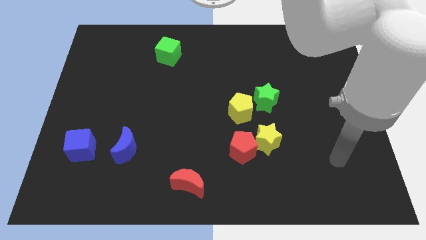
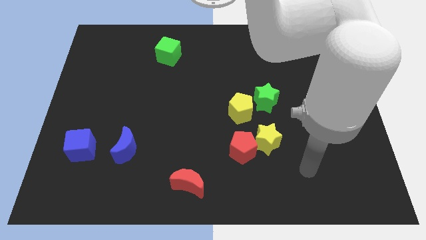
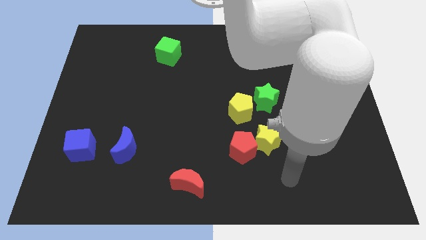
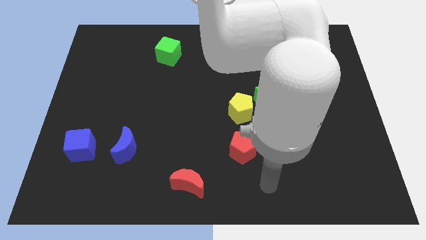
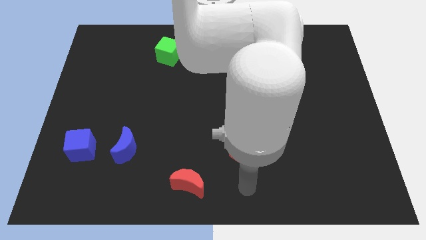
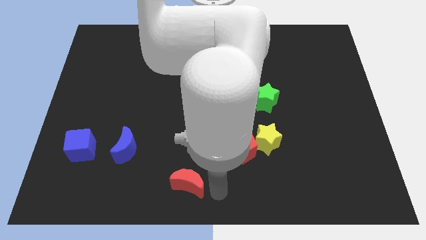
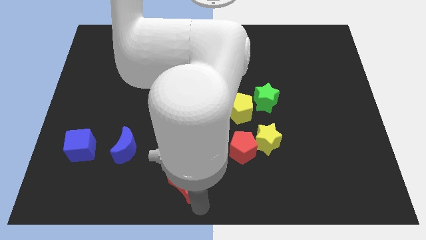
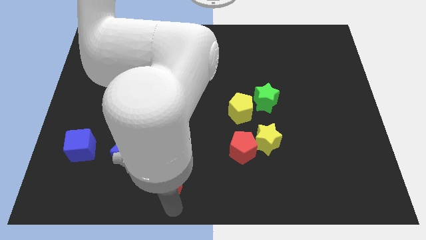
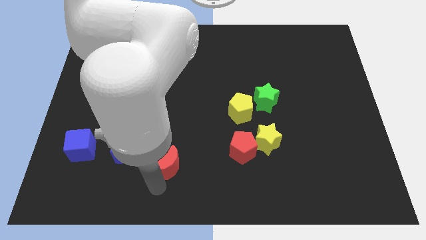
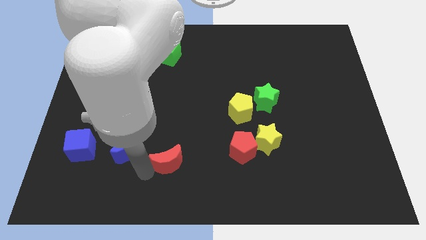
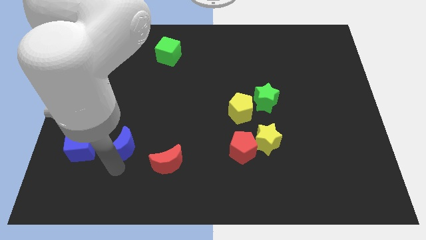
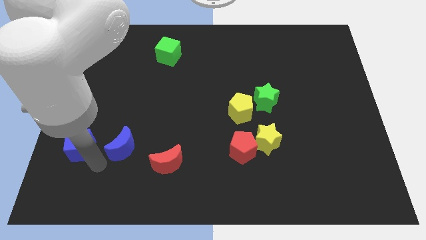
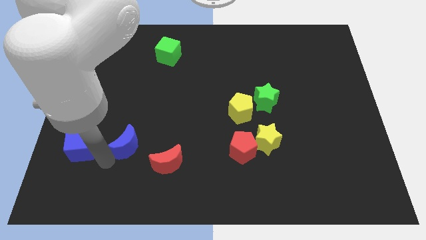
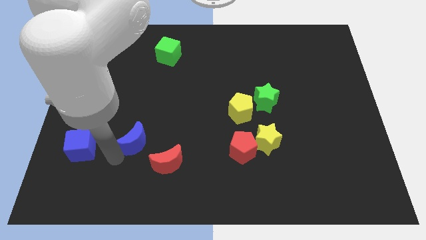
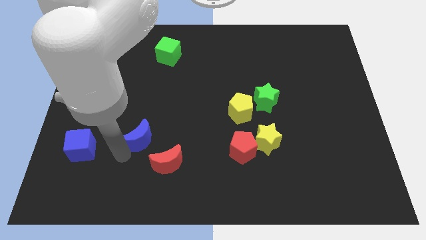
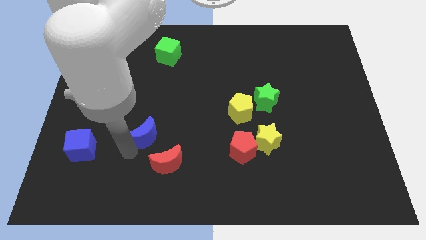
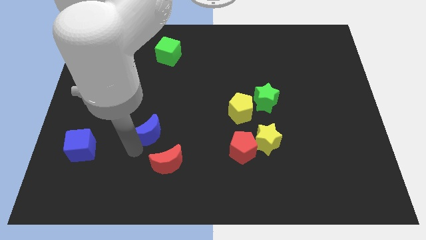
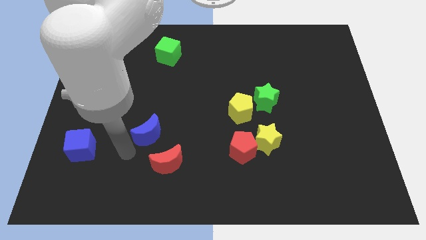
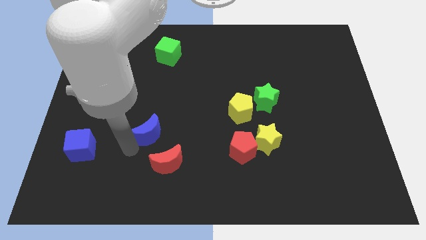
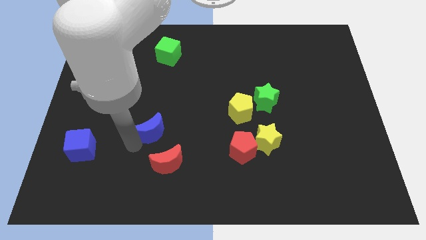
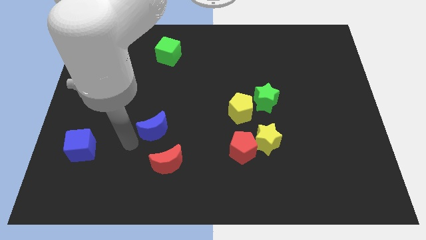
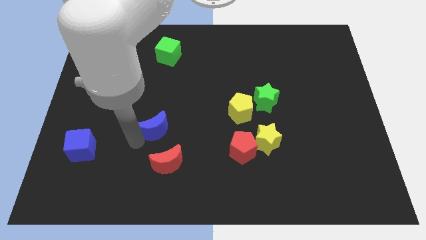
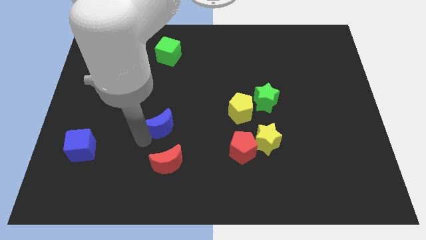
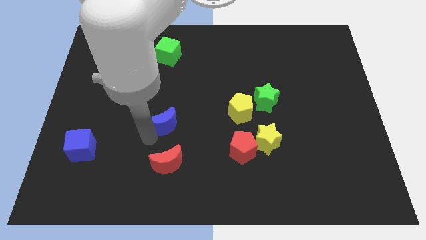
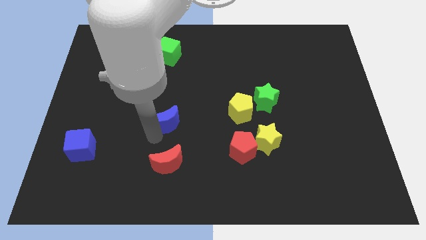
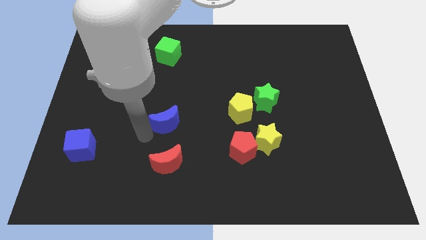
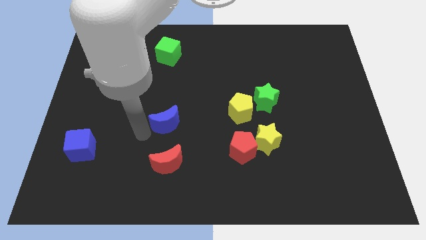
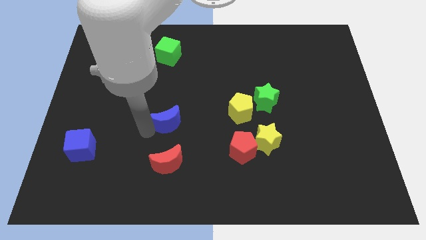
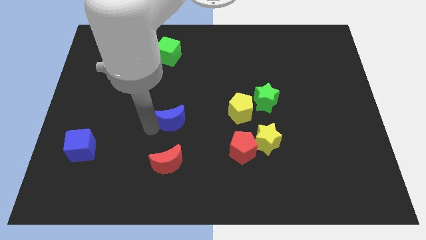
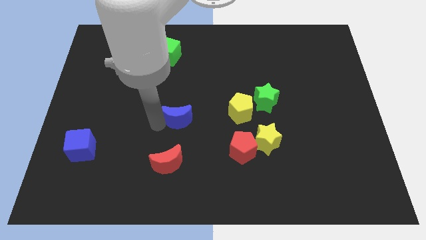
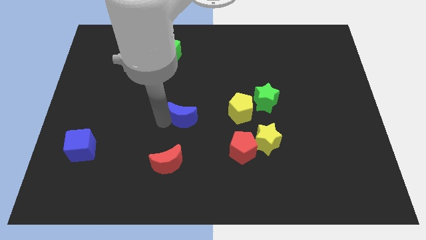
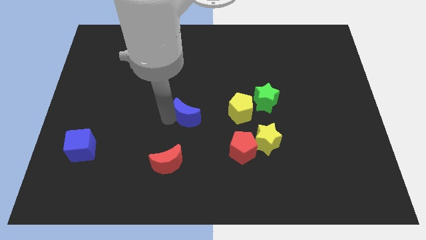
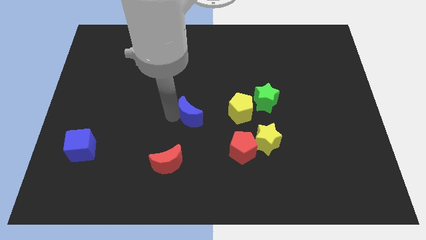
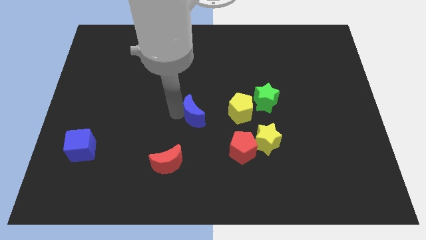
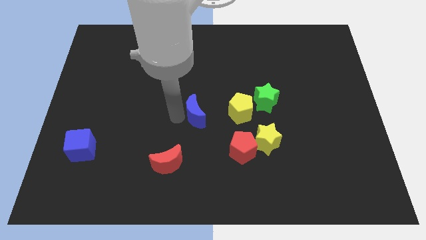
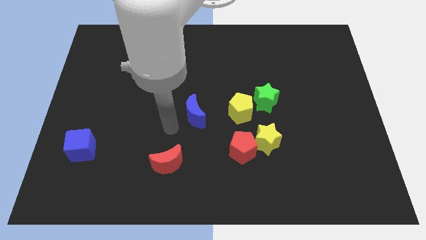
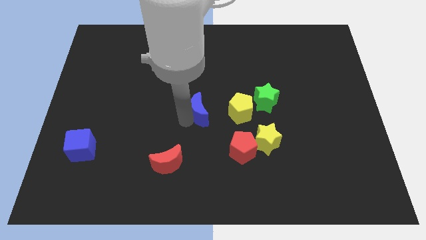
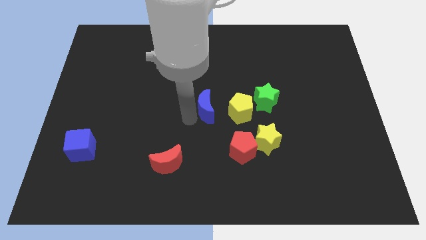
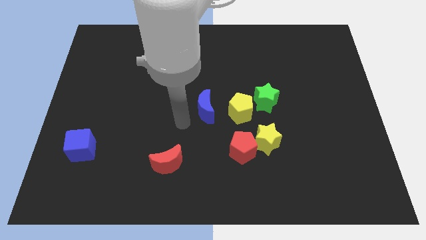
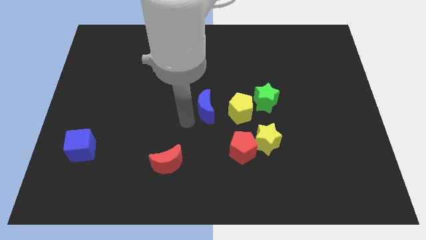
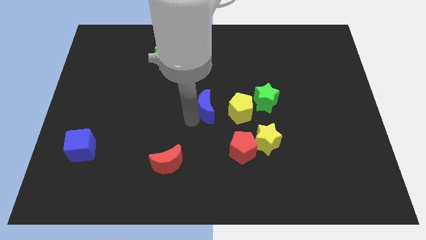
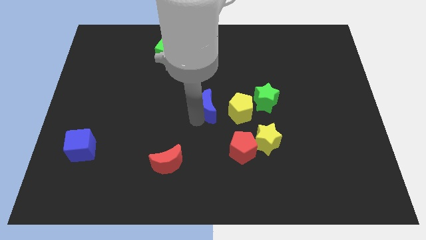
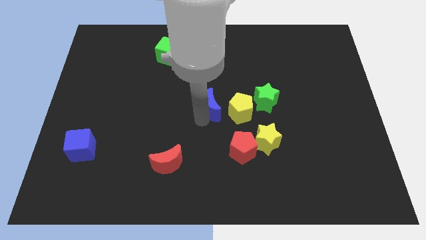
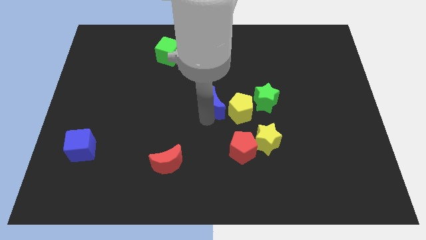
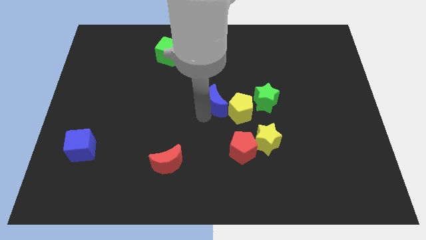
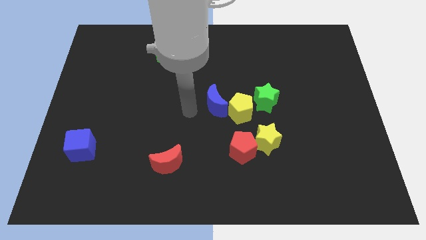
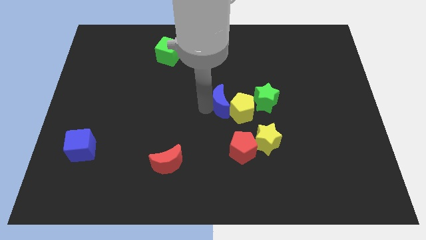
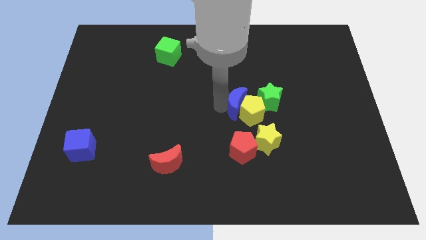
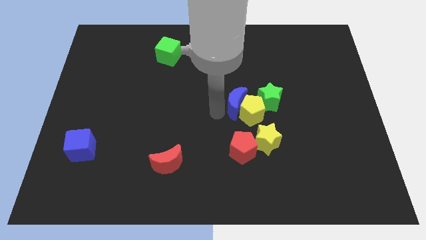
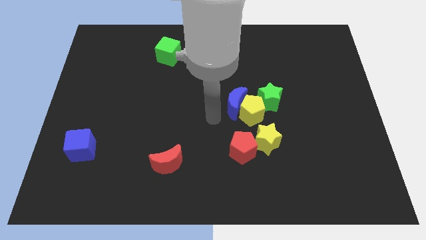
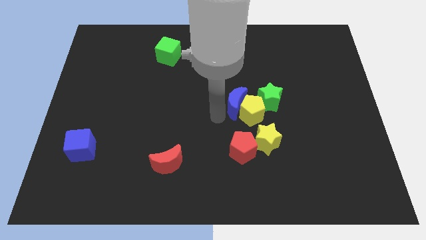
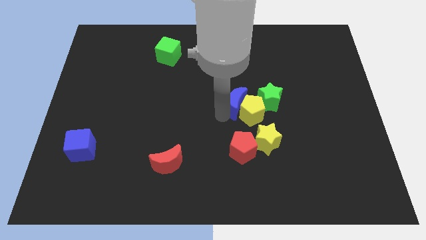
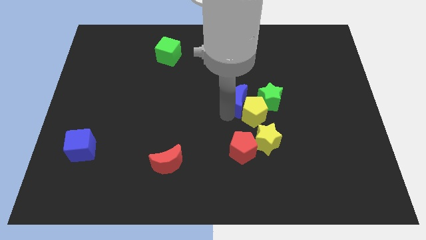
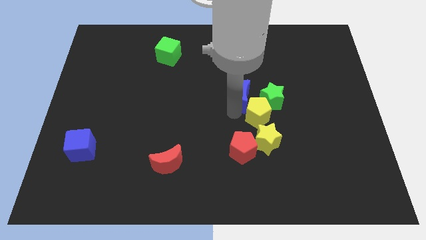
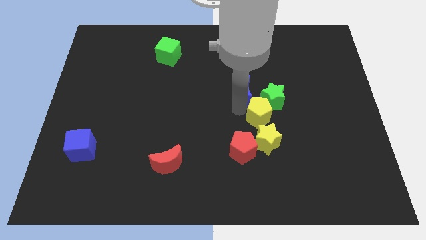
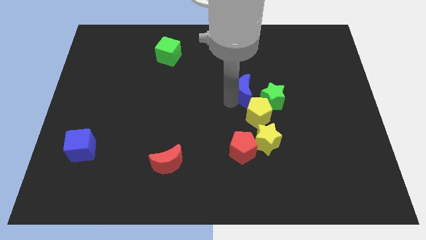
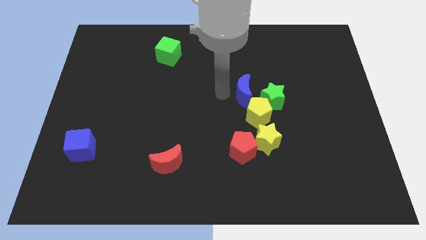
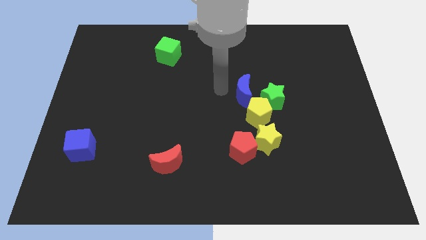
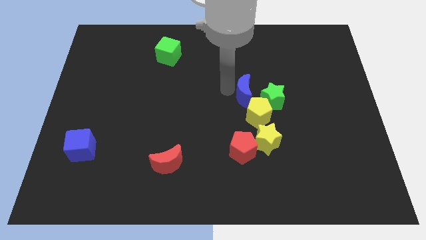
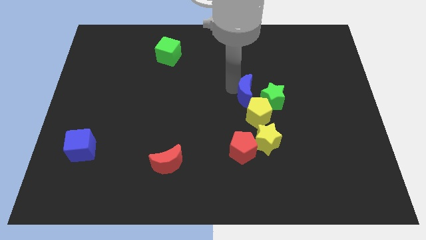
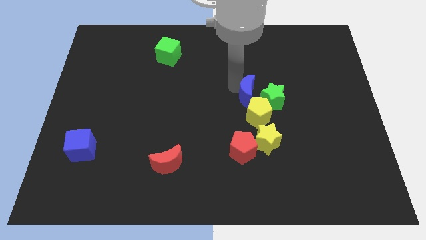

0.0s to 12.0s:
push the blue moon close to the green star
